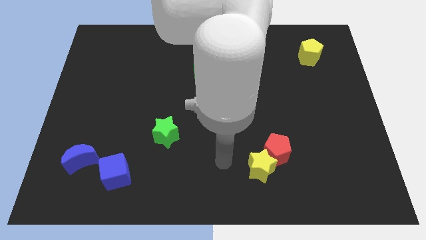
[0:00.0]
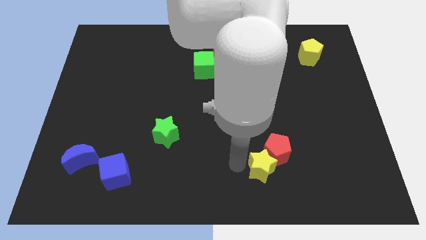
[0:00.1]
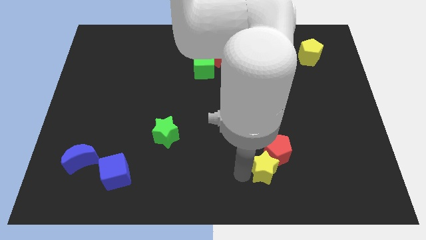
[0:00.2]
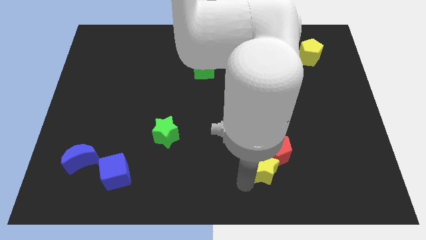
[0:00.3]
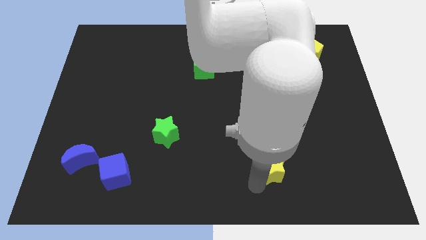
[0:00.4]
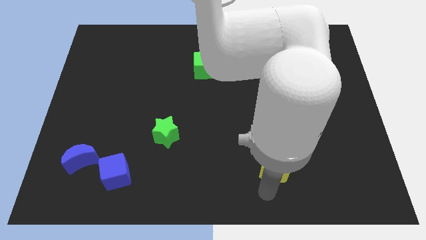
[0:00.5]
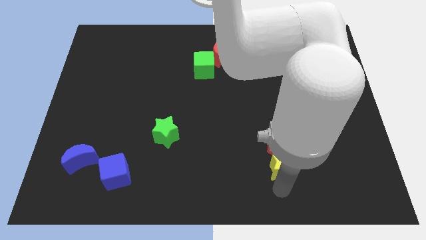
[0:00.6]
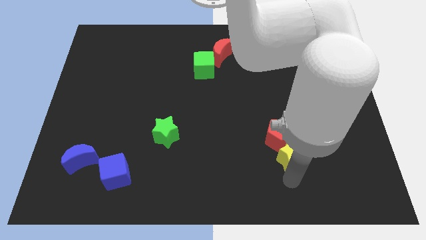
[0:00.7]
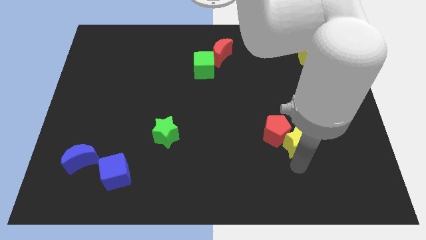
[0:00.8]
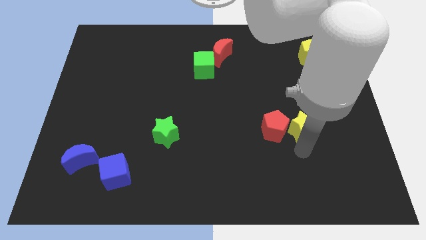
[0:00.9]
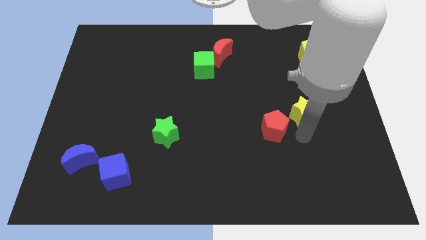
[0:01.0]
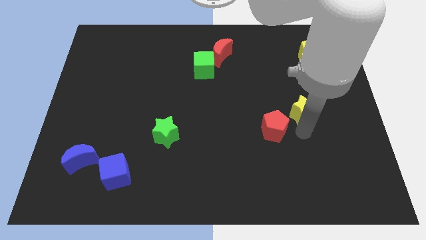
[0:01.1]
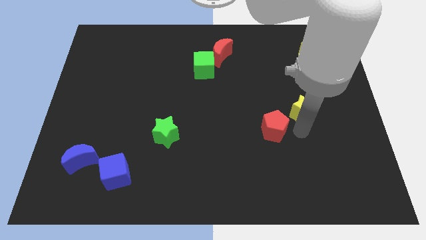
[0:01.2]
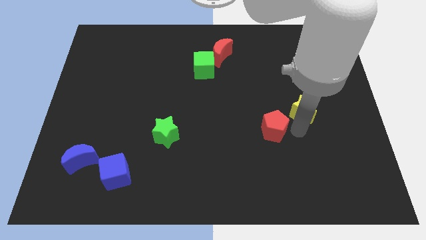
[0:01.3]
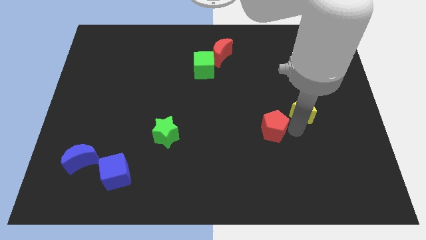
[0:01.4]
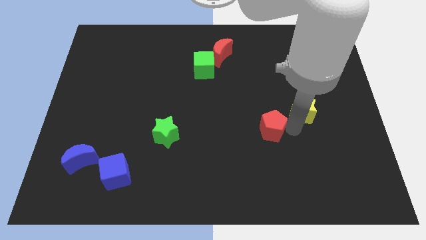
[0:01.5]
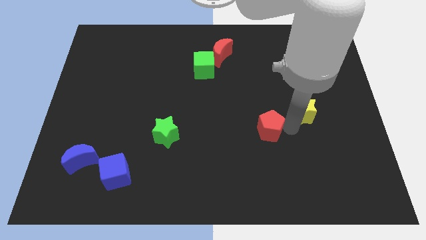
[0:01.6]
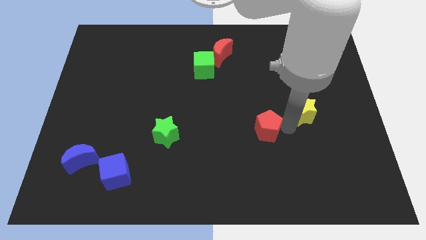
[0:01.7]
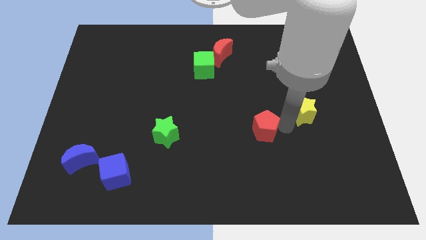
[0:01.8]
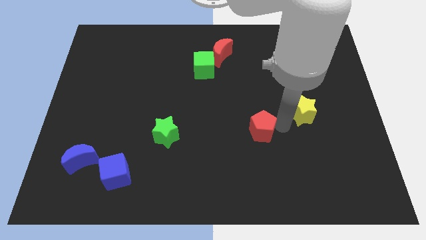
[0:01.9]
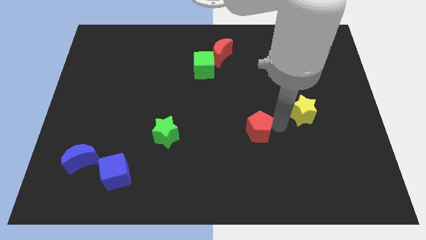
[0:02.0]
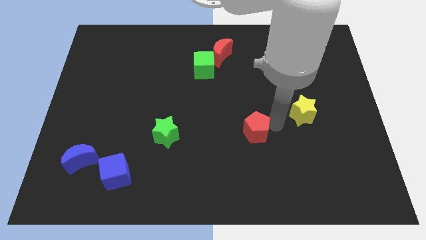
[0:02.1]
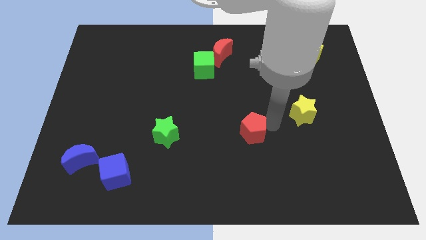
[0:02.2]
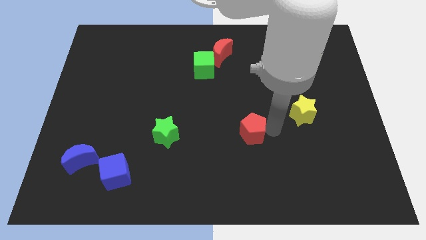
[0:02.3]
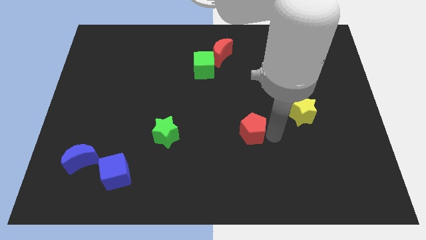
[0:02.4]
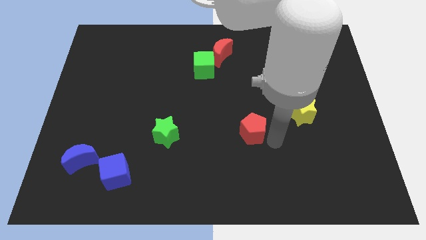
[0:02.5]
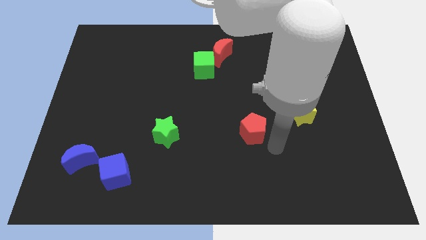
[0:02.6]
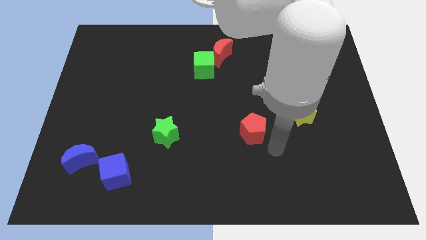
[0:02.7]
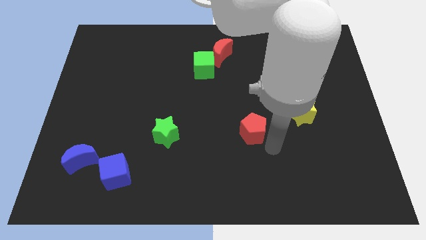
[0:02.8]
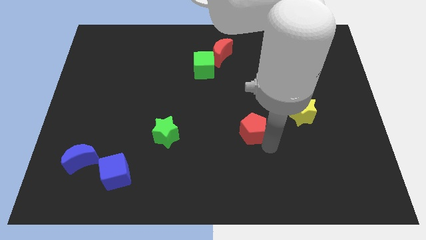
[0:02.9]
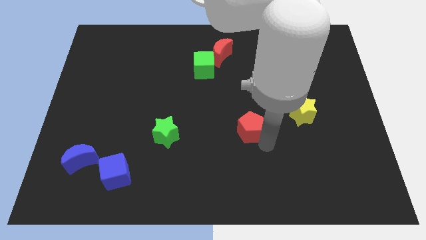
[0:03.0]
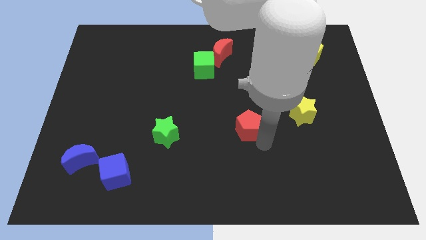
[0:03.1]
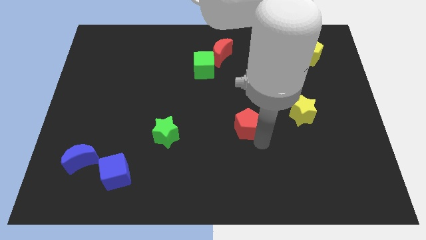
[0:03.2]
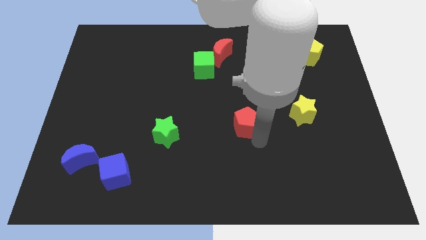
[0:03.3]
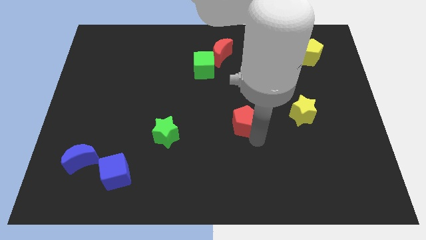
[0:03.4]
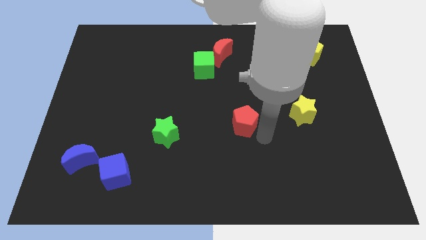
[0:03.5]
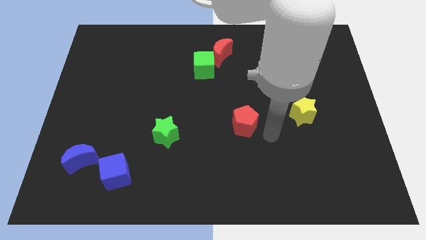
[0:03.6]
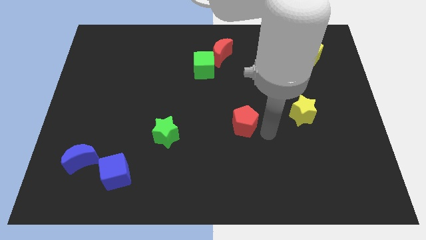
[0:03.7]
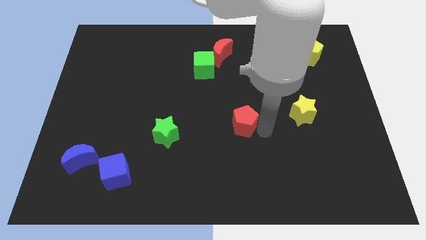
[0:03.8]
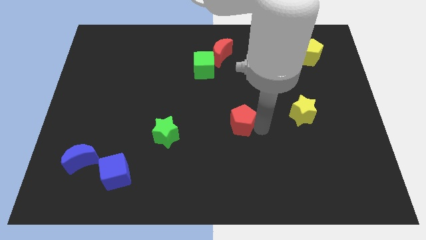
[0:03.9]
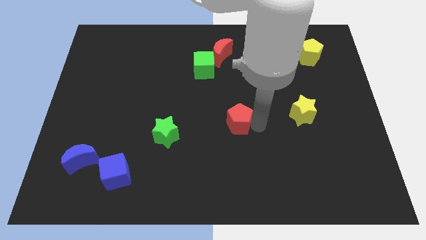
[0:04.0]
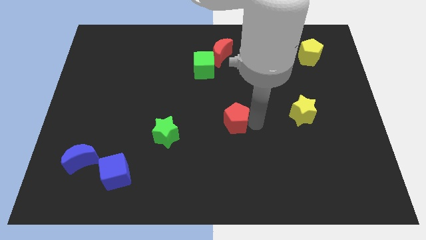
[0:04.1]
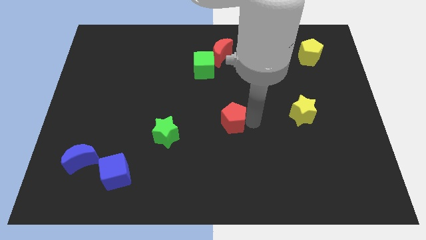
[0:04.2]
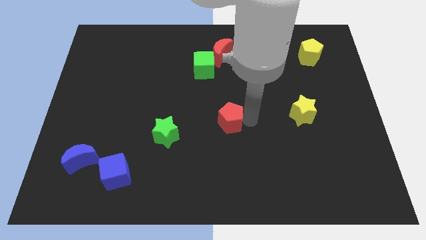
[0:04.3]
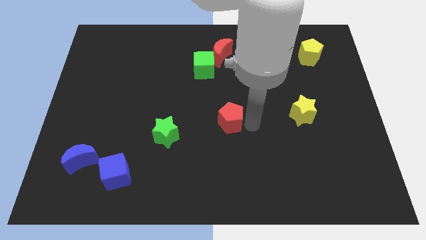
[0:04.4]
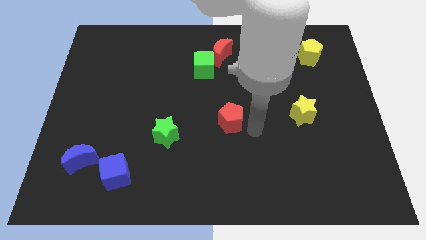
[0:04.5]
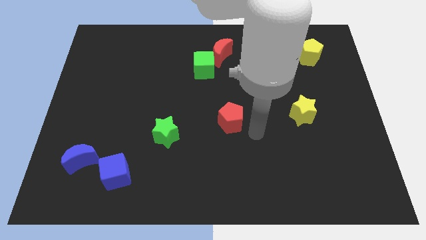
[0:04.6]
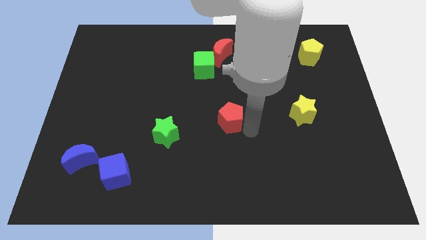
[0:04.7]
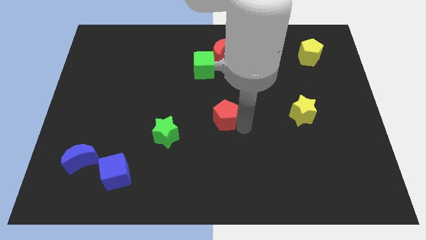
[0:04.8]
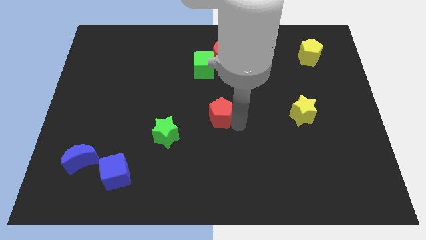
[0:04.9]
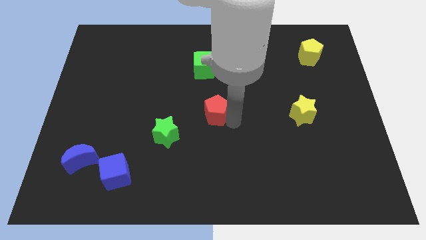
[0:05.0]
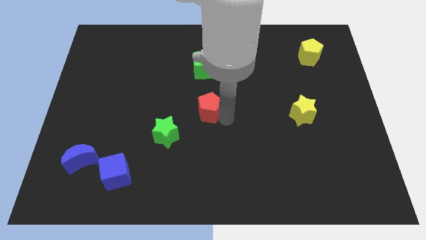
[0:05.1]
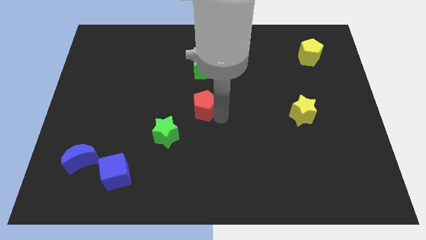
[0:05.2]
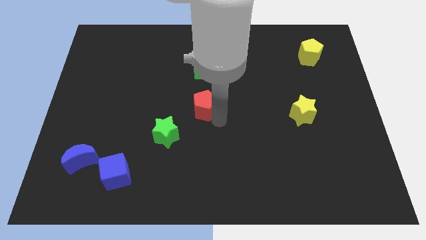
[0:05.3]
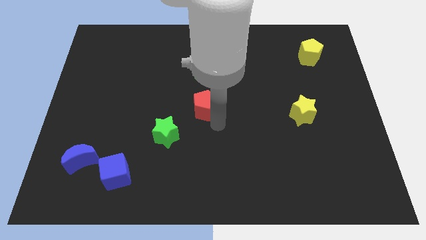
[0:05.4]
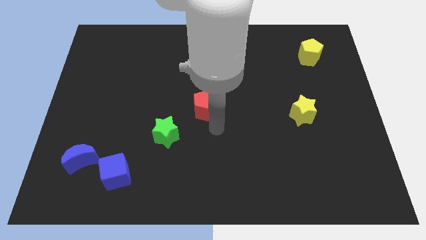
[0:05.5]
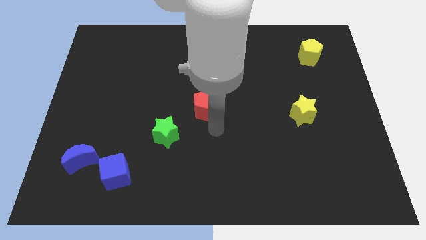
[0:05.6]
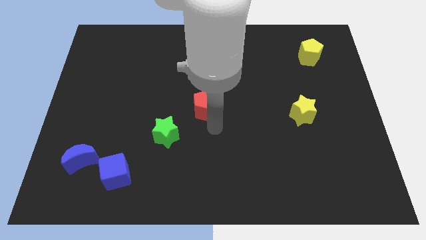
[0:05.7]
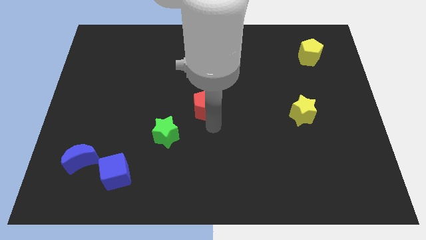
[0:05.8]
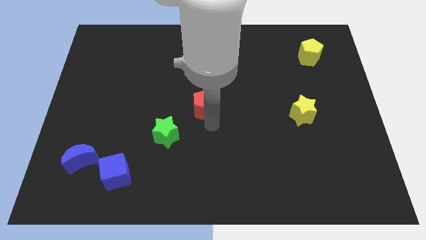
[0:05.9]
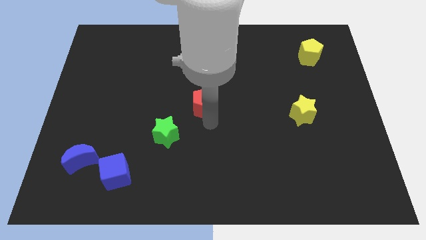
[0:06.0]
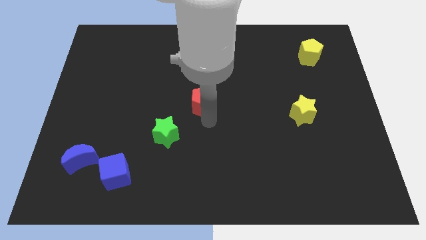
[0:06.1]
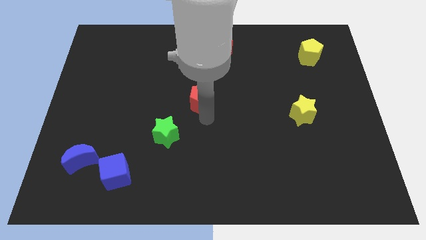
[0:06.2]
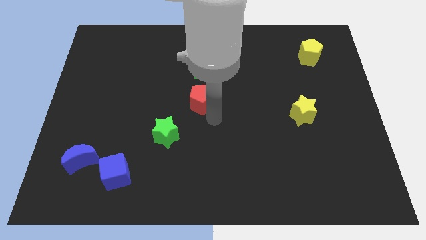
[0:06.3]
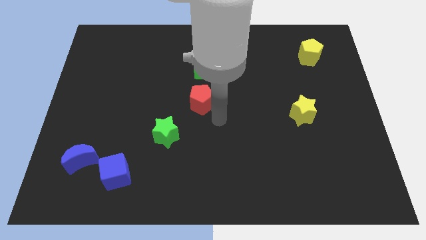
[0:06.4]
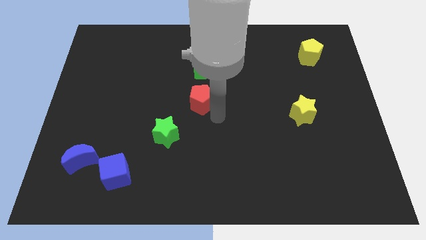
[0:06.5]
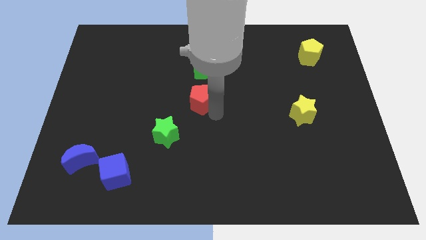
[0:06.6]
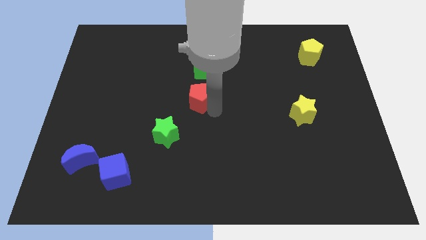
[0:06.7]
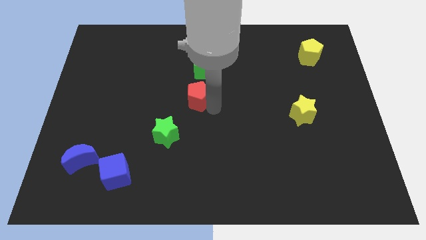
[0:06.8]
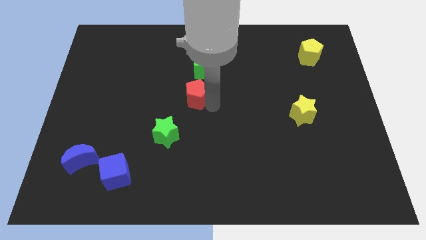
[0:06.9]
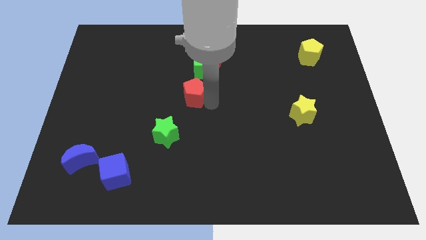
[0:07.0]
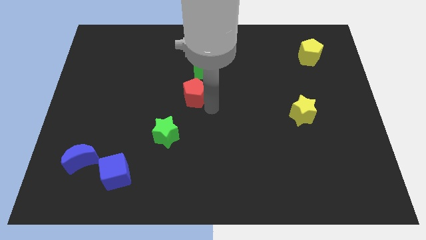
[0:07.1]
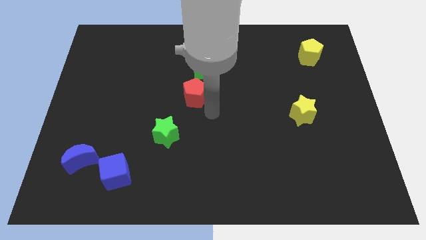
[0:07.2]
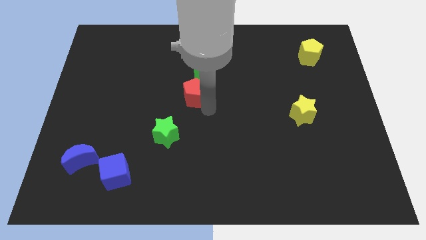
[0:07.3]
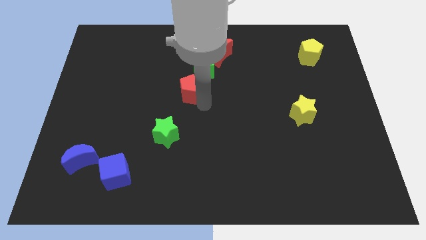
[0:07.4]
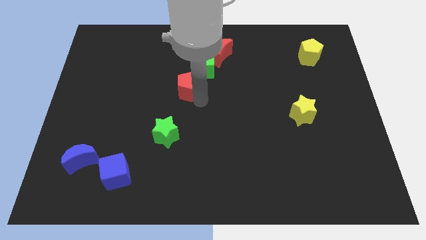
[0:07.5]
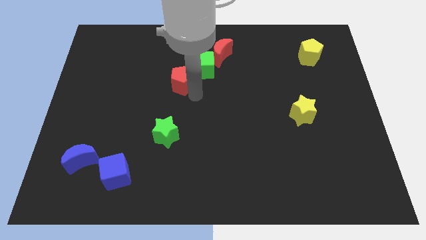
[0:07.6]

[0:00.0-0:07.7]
move the red pentagon just left of the green cube
